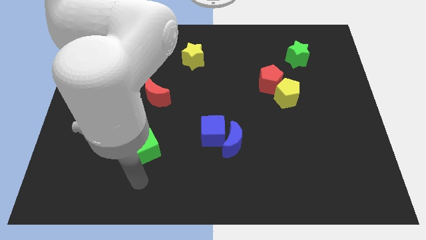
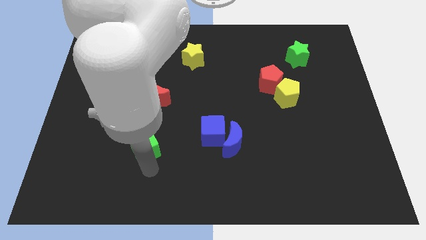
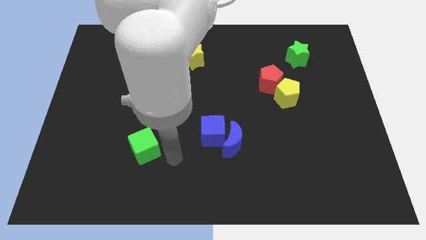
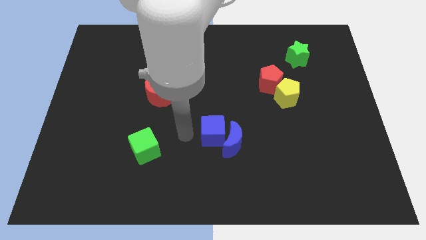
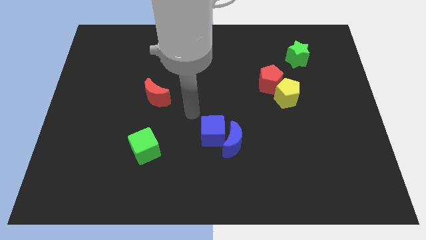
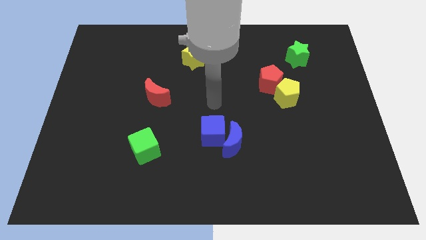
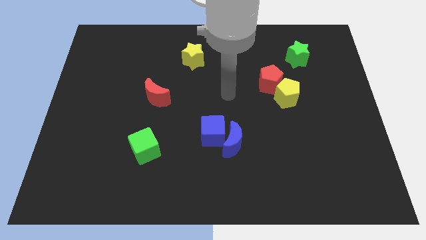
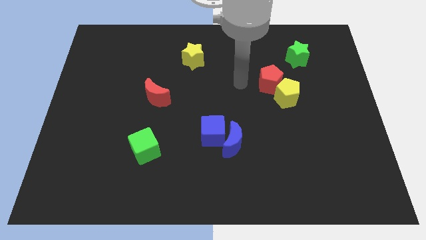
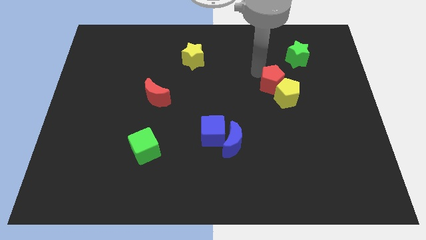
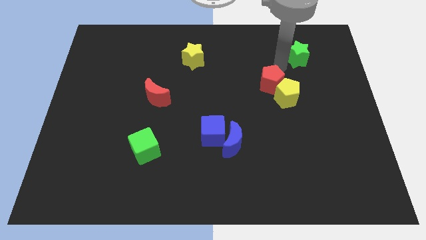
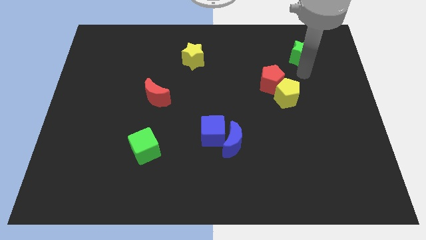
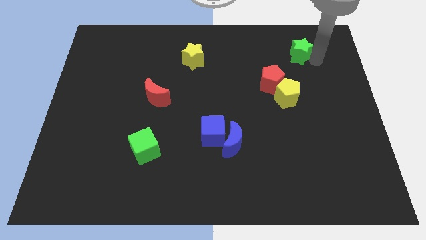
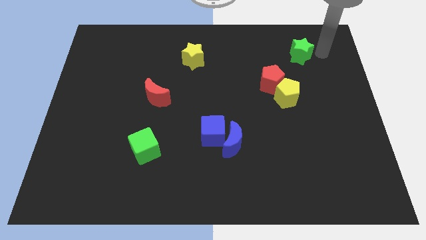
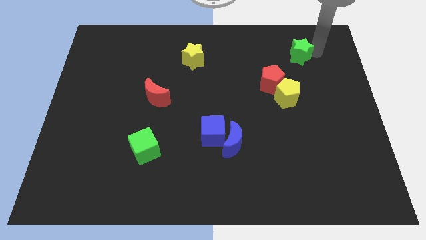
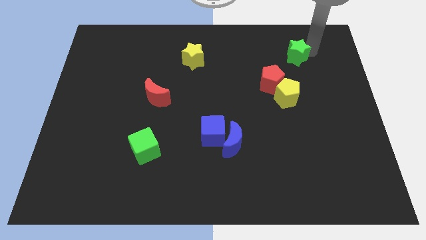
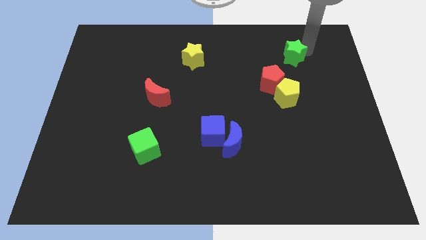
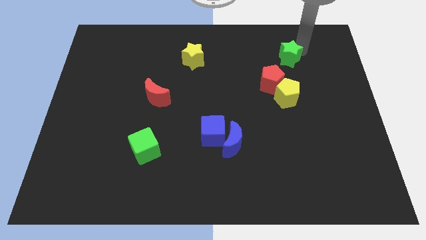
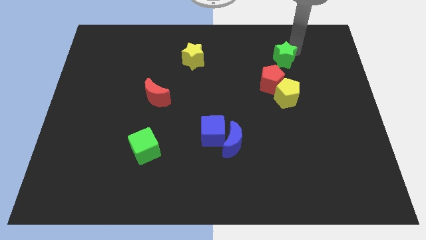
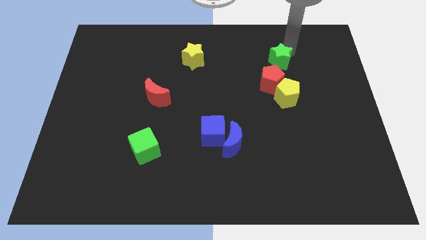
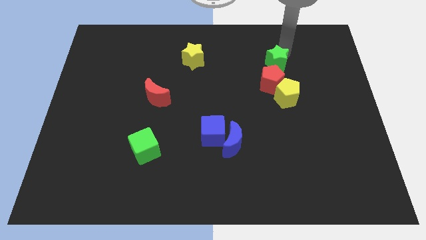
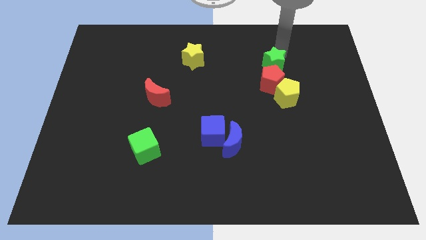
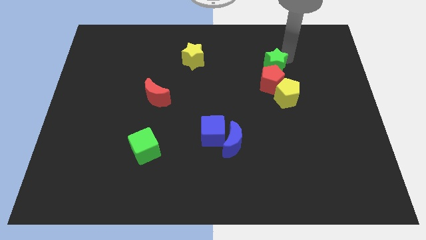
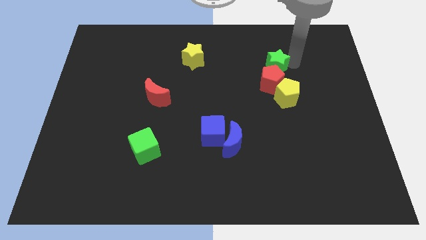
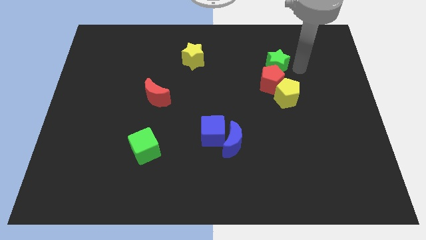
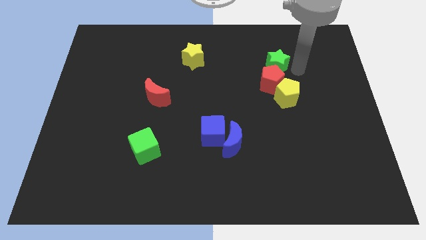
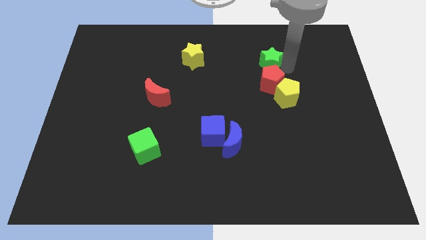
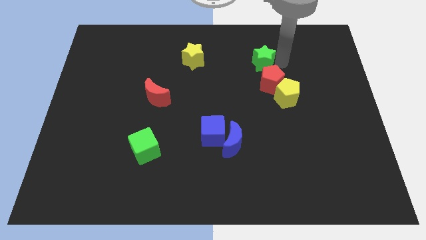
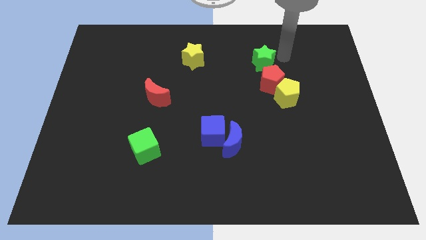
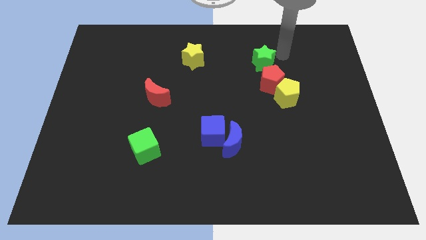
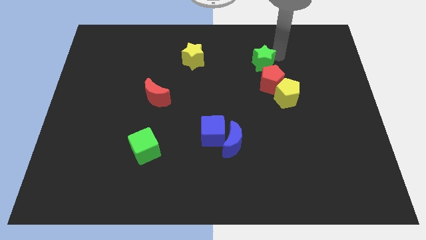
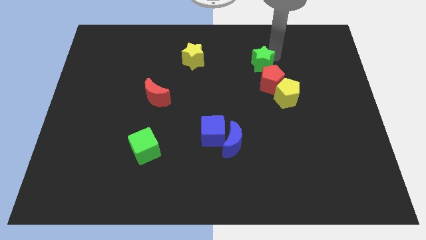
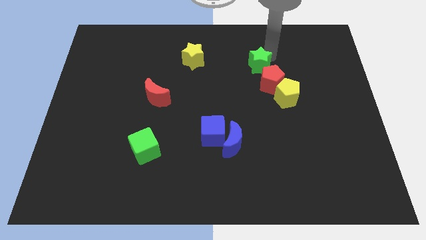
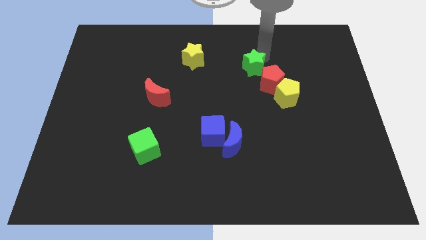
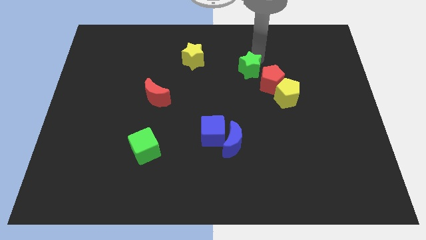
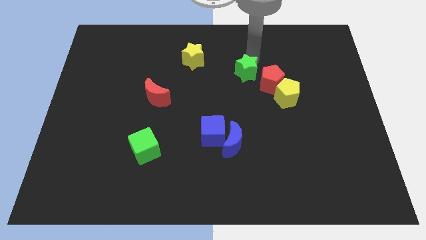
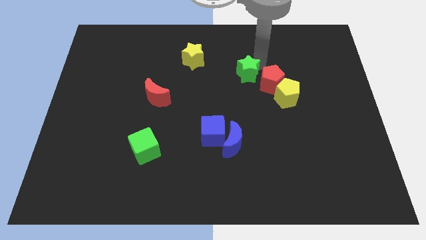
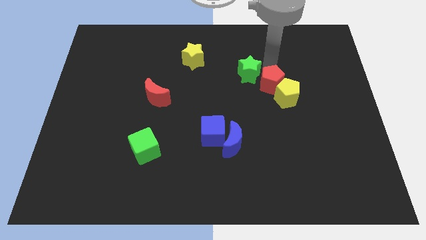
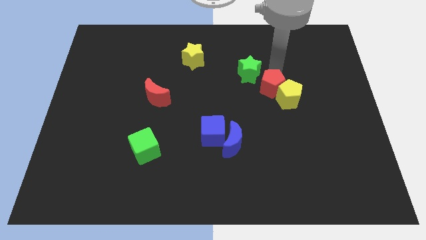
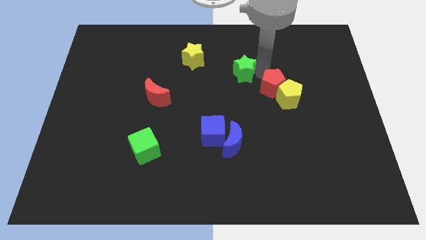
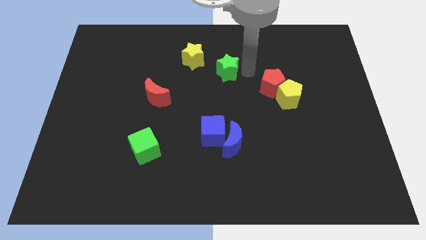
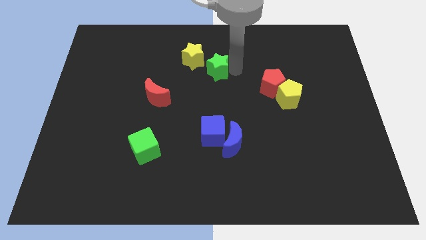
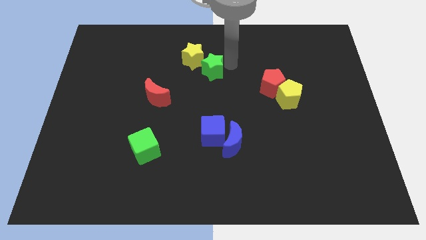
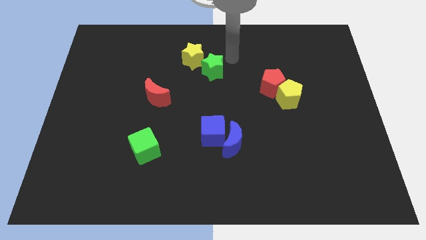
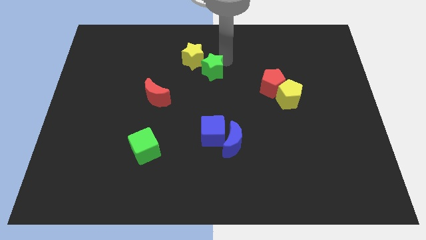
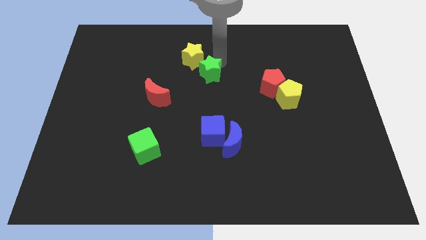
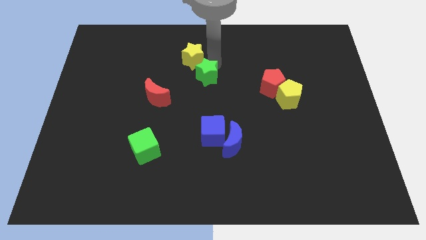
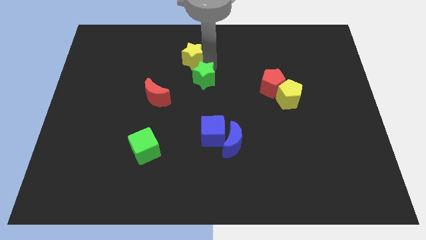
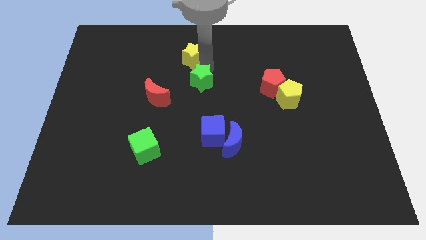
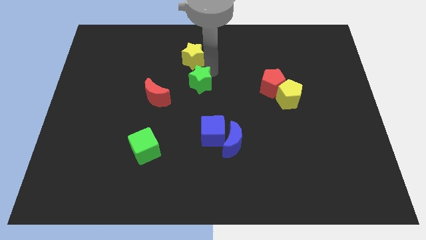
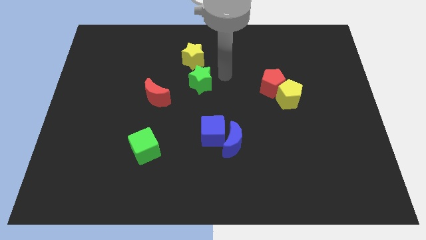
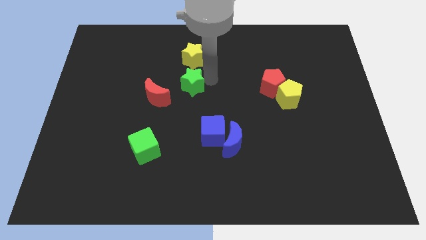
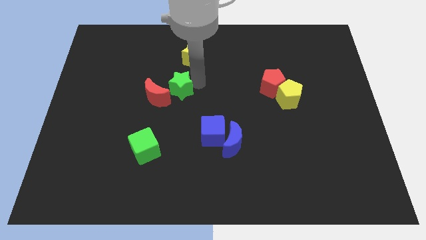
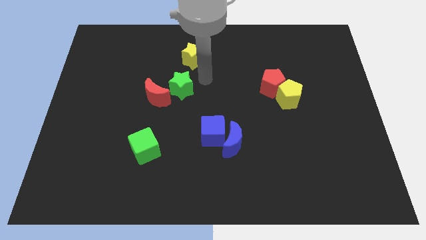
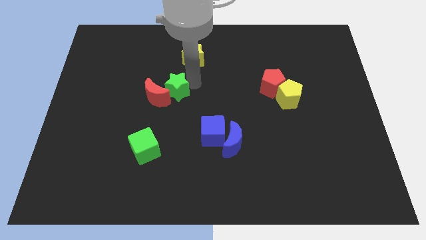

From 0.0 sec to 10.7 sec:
slide the green star close to the red moon

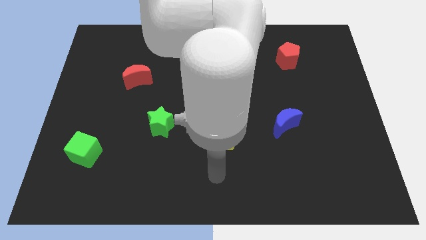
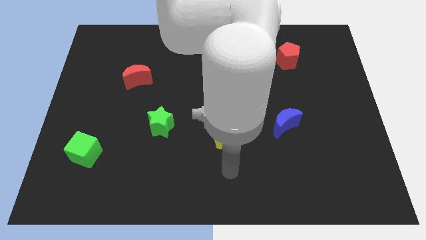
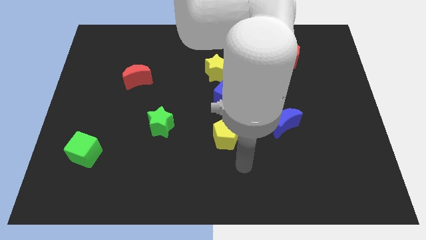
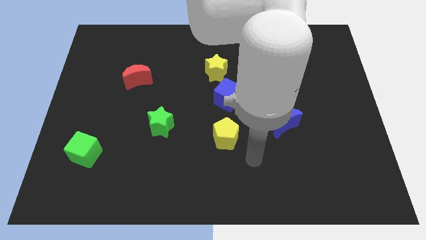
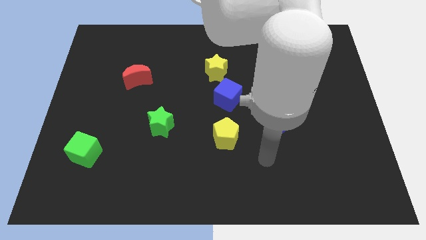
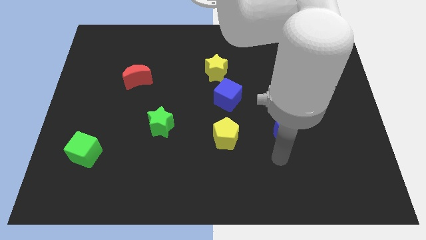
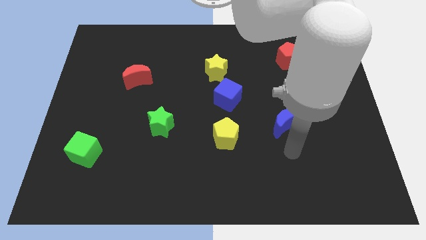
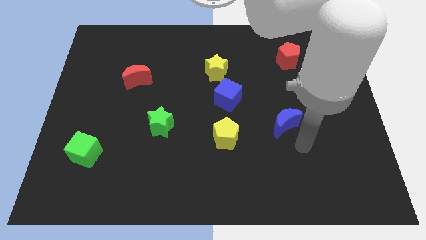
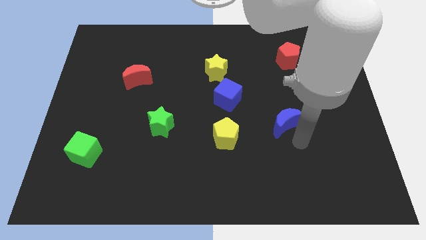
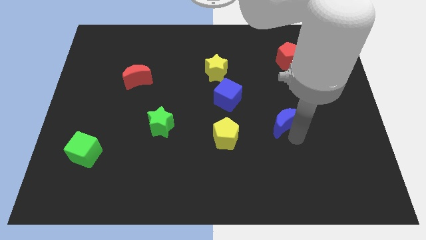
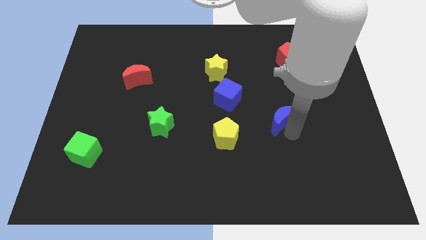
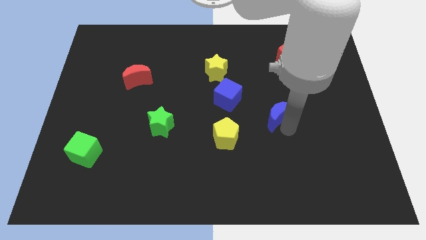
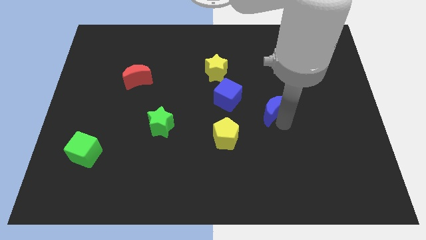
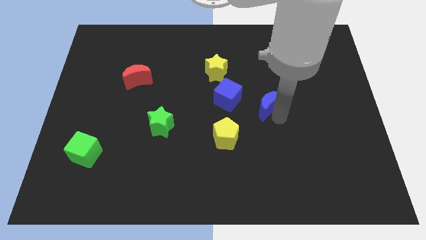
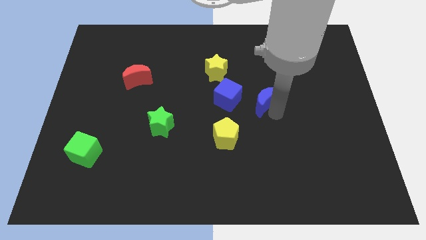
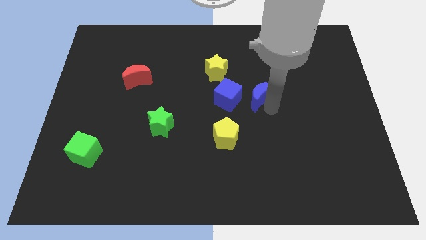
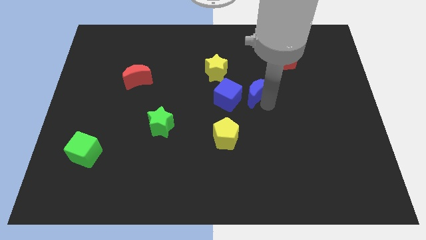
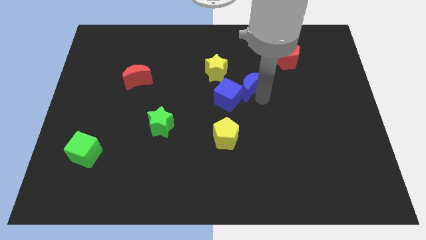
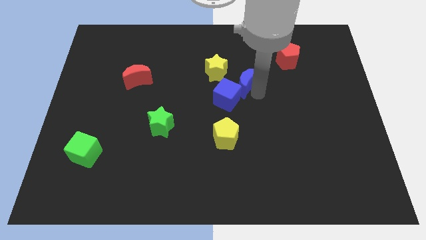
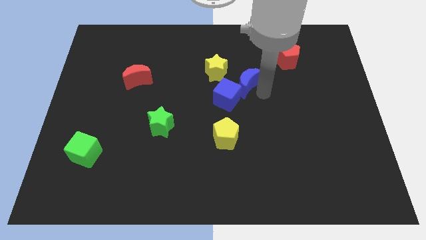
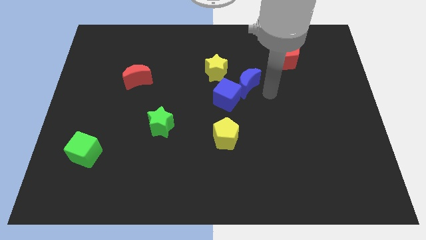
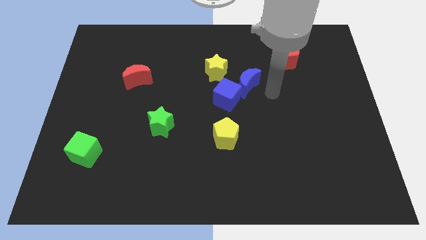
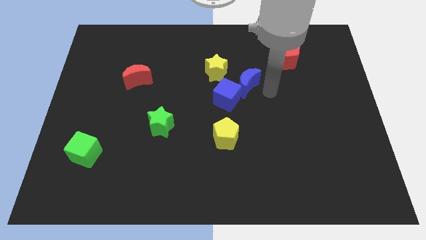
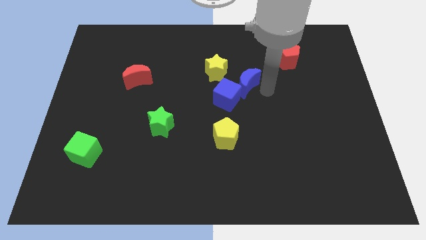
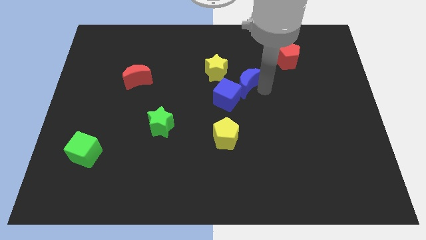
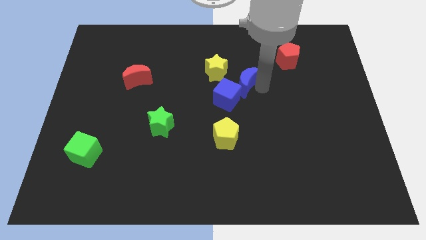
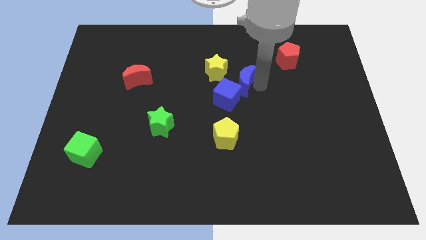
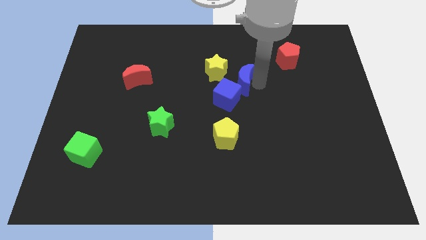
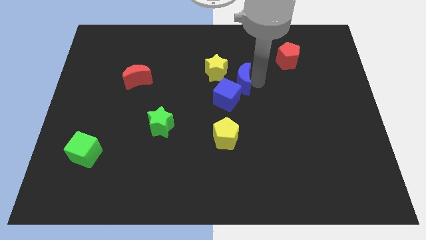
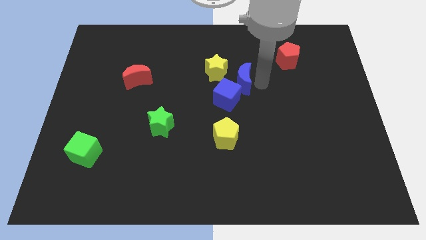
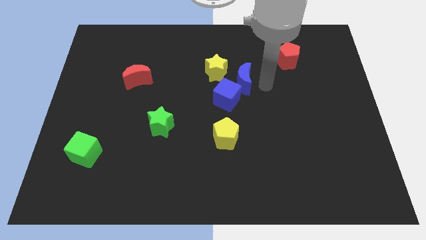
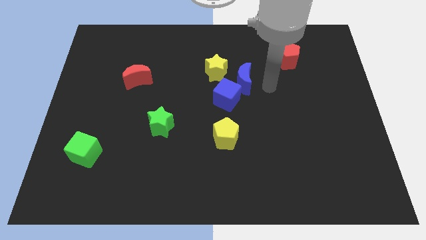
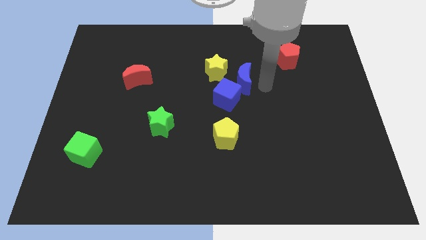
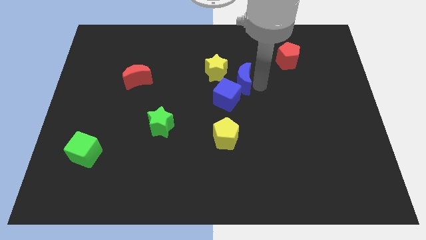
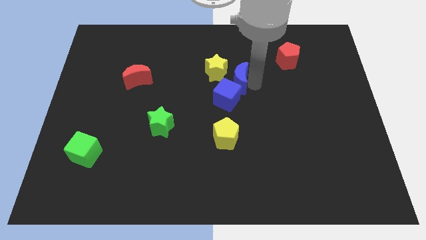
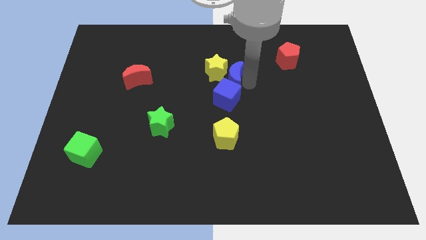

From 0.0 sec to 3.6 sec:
put the blue moon next to the yellow star
